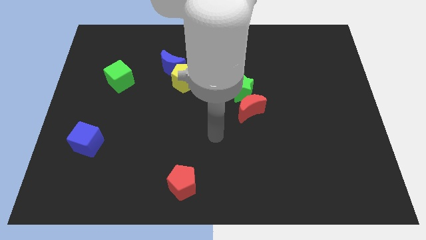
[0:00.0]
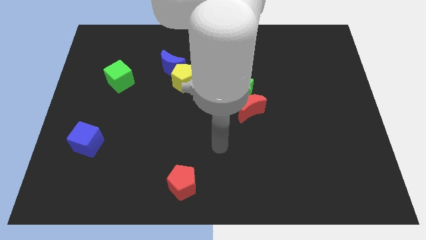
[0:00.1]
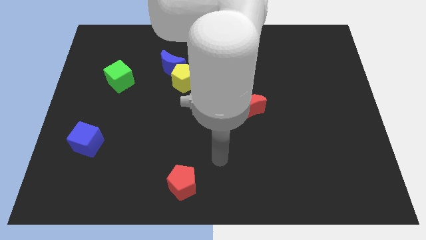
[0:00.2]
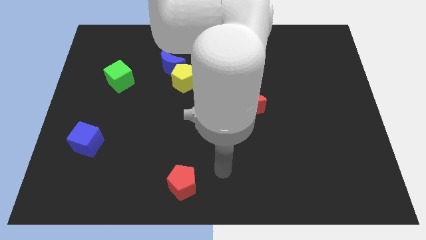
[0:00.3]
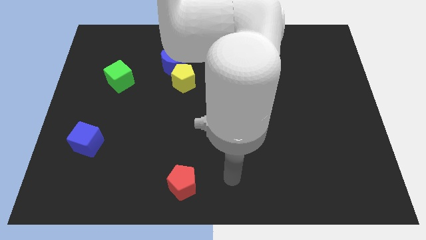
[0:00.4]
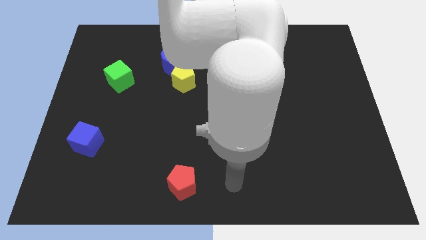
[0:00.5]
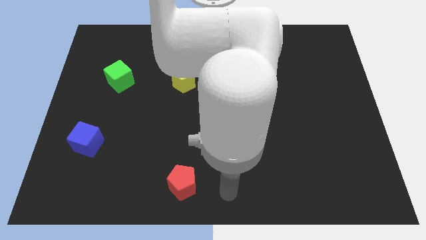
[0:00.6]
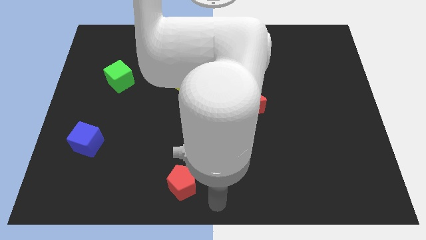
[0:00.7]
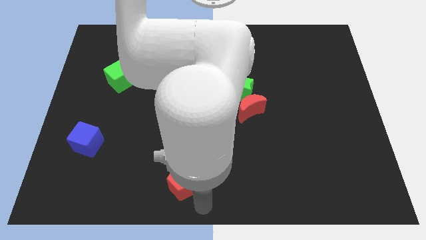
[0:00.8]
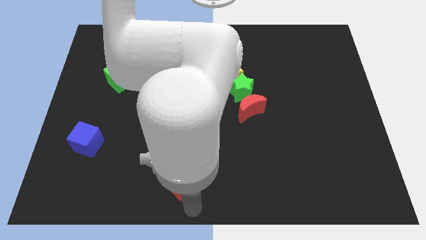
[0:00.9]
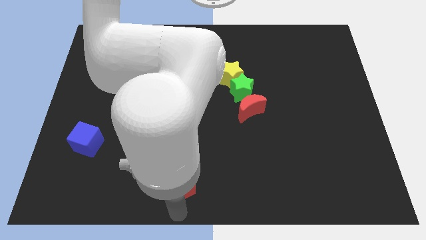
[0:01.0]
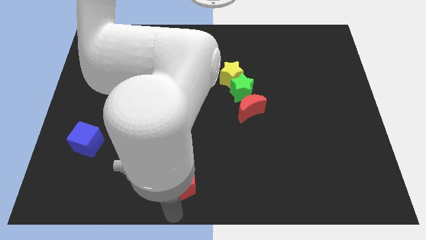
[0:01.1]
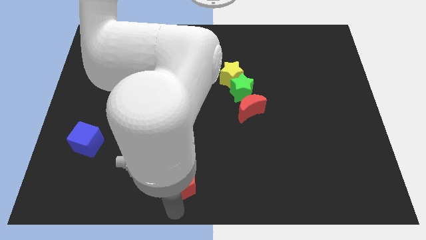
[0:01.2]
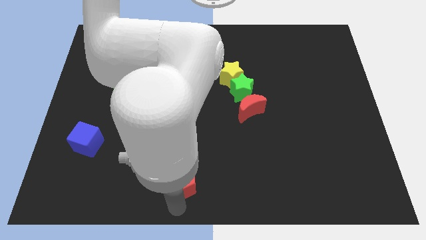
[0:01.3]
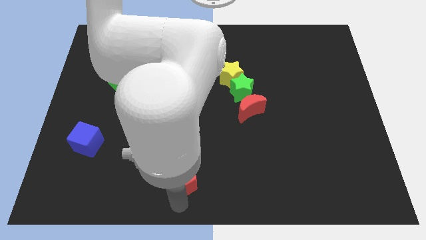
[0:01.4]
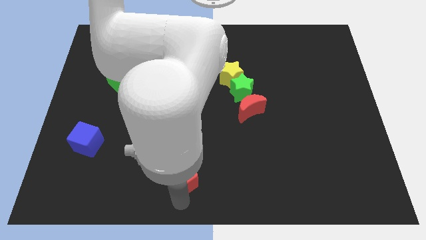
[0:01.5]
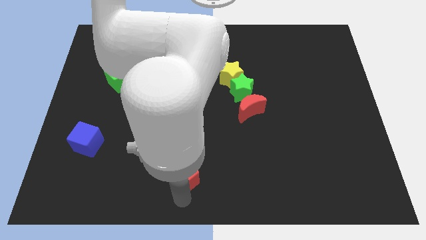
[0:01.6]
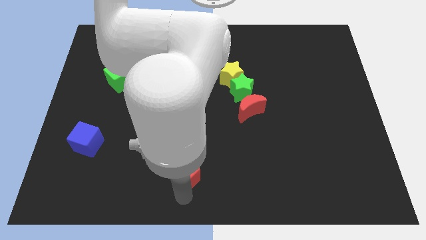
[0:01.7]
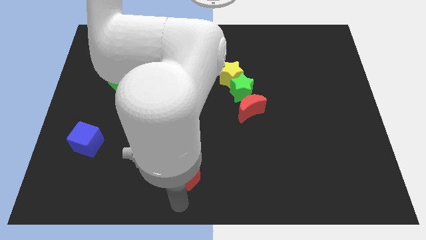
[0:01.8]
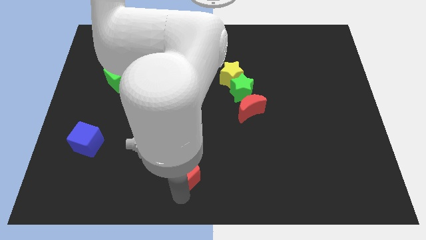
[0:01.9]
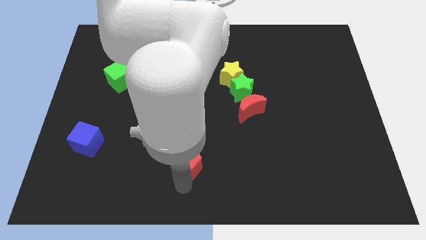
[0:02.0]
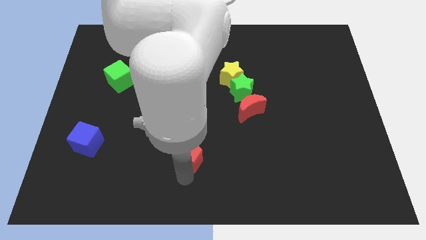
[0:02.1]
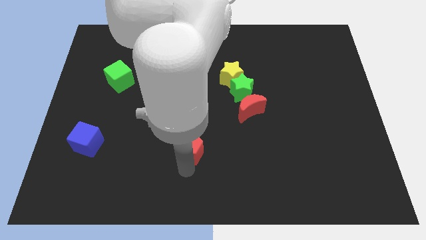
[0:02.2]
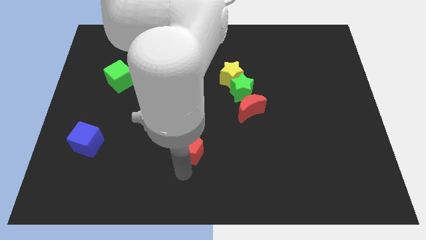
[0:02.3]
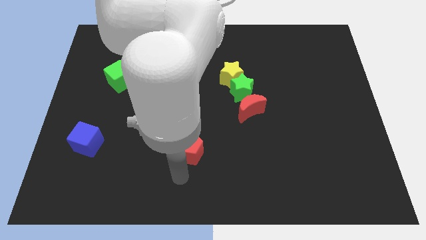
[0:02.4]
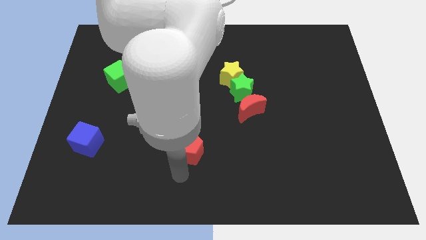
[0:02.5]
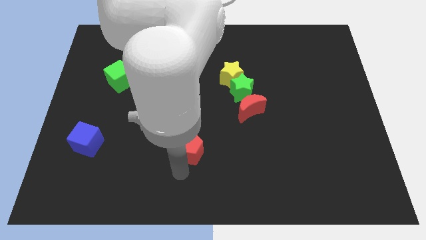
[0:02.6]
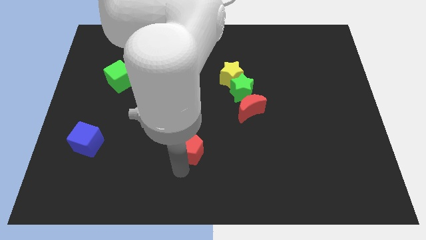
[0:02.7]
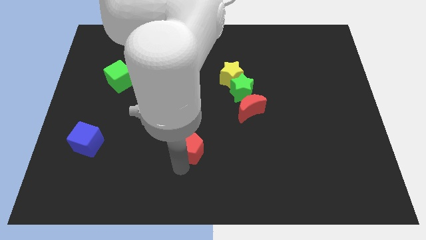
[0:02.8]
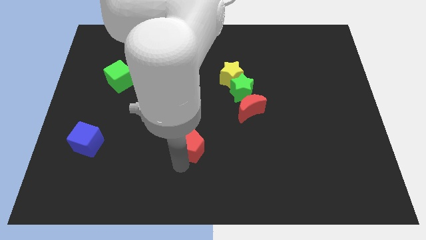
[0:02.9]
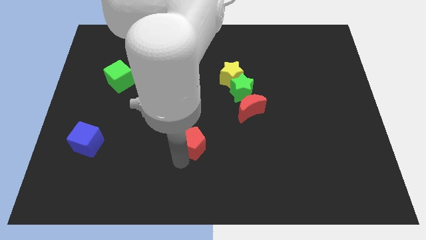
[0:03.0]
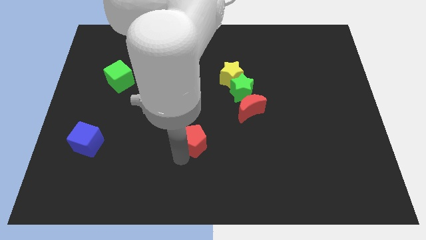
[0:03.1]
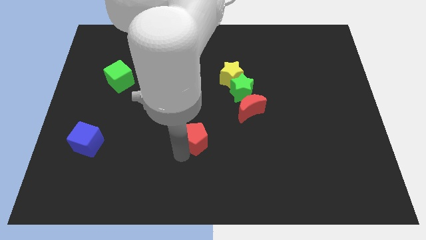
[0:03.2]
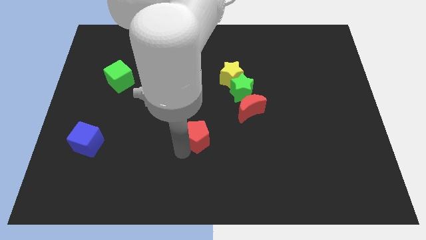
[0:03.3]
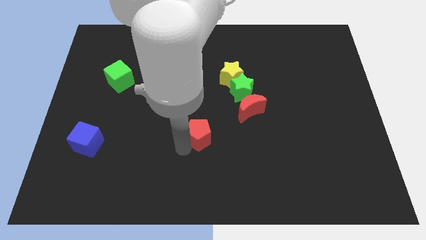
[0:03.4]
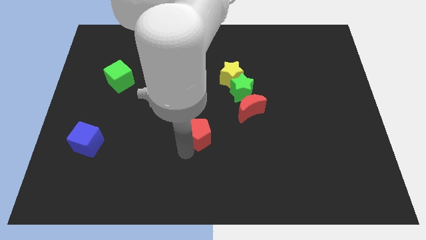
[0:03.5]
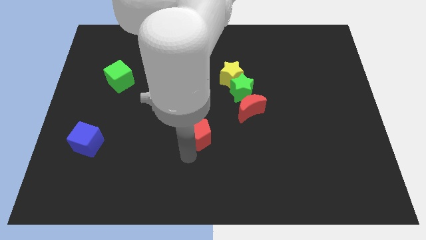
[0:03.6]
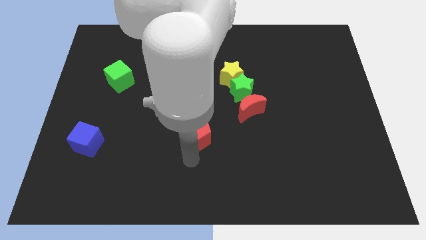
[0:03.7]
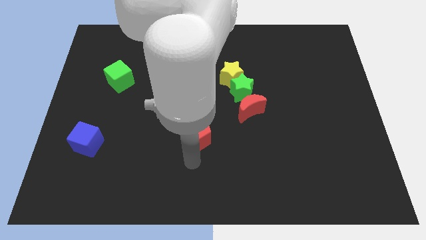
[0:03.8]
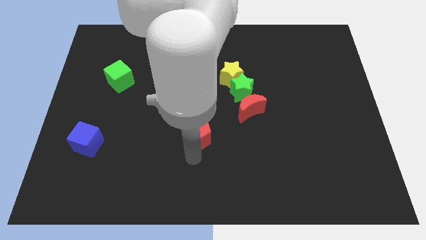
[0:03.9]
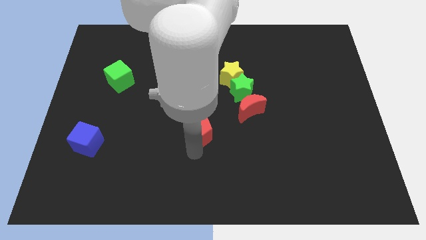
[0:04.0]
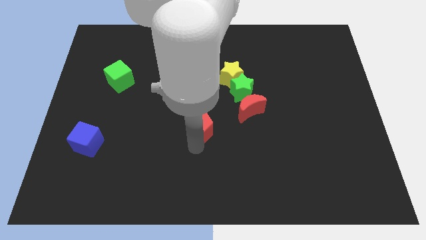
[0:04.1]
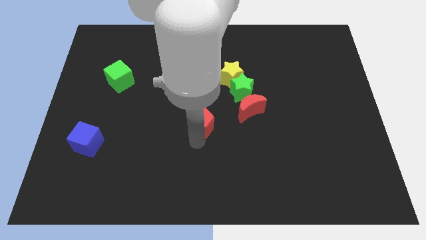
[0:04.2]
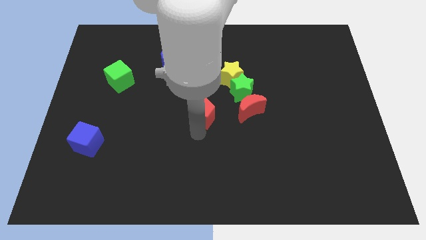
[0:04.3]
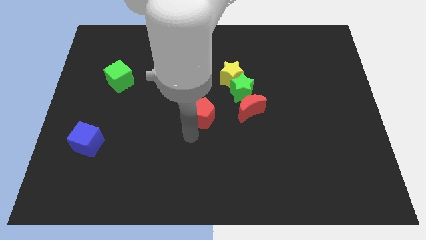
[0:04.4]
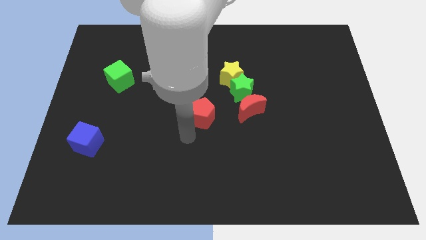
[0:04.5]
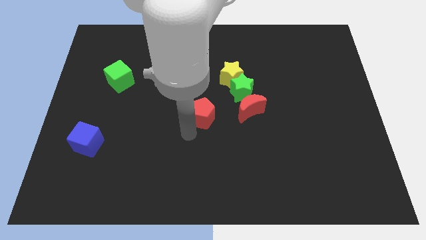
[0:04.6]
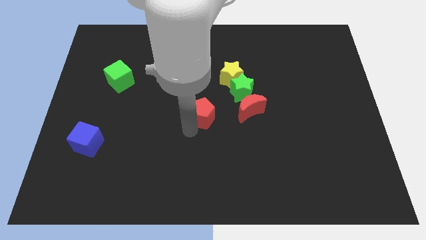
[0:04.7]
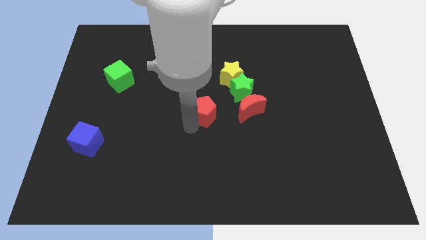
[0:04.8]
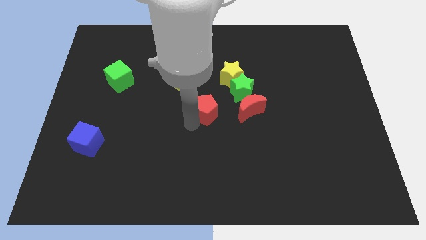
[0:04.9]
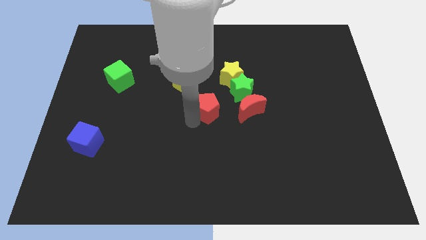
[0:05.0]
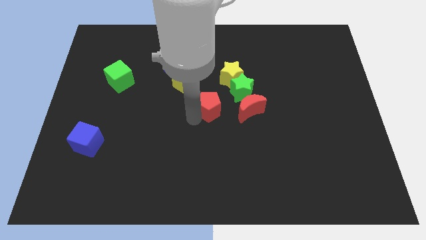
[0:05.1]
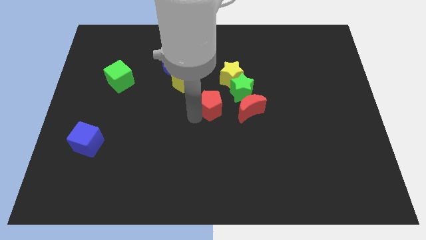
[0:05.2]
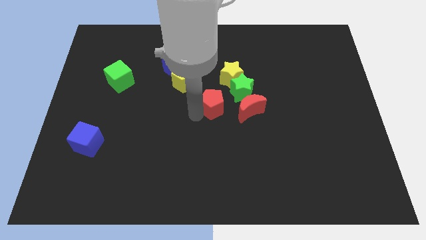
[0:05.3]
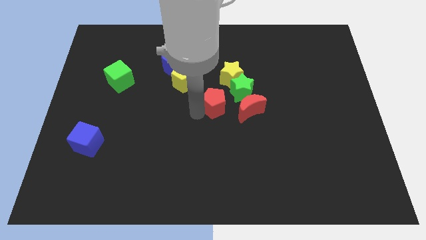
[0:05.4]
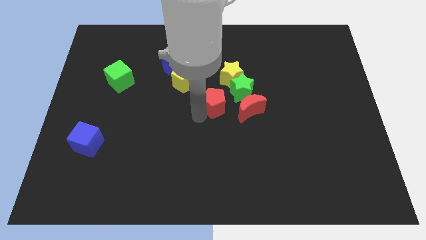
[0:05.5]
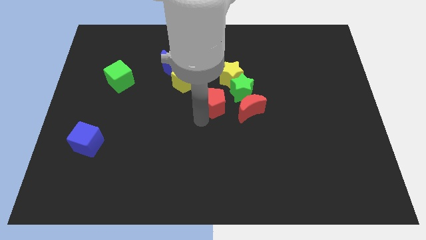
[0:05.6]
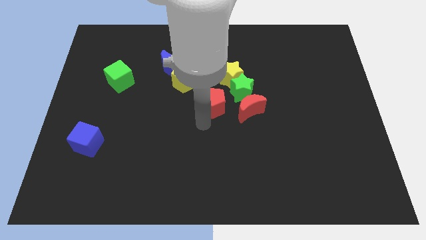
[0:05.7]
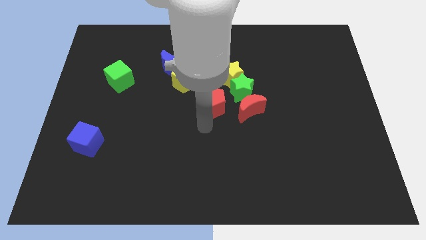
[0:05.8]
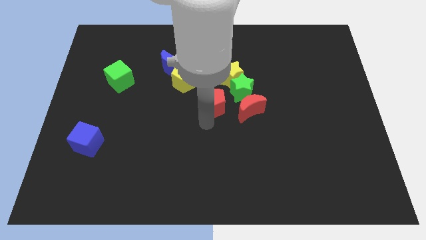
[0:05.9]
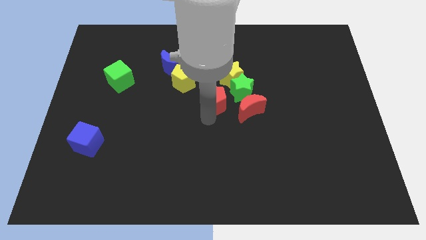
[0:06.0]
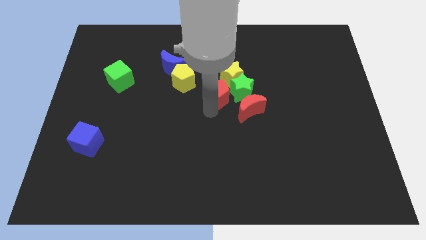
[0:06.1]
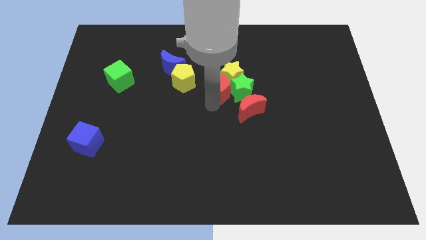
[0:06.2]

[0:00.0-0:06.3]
move the red pentagon close to the yellow star
